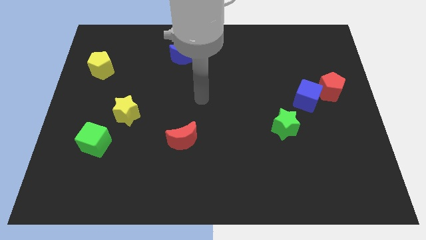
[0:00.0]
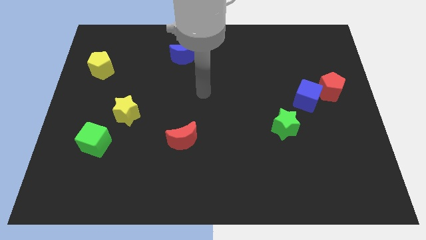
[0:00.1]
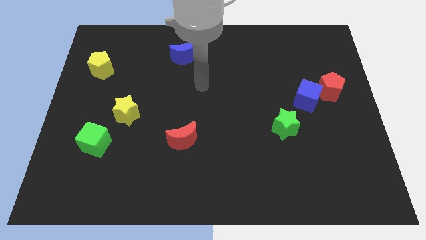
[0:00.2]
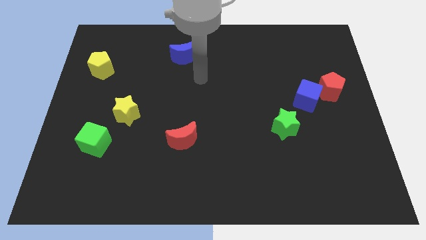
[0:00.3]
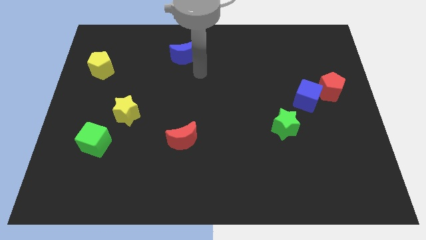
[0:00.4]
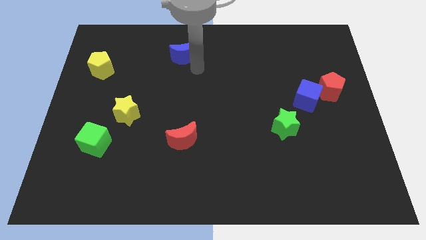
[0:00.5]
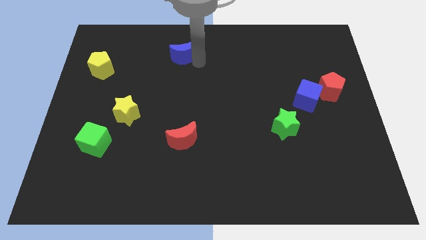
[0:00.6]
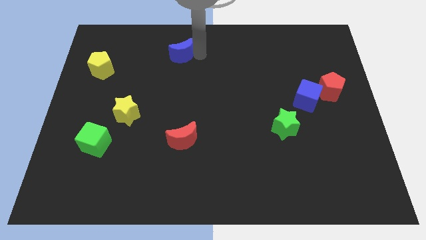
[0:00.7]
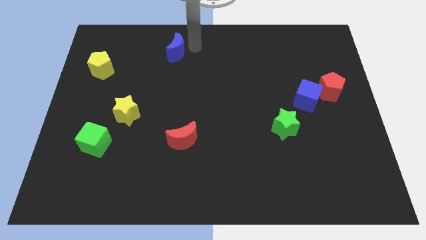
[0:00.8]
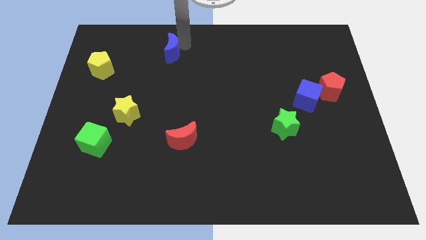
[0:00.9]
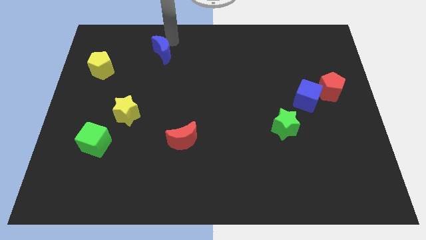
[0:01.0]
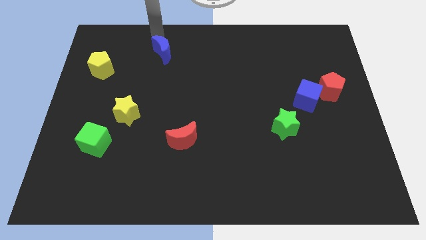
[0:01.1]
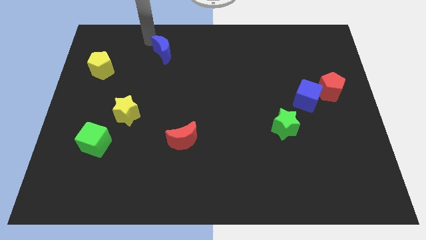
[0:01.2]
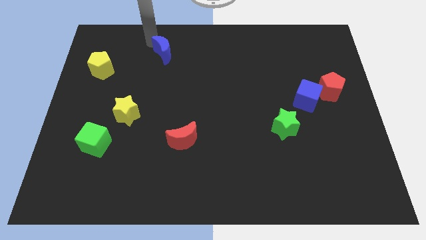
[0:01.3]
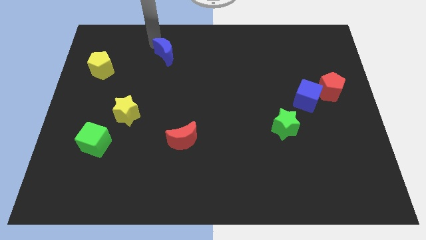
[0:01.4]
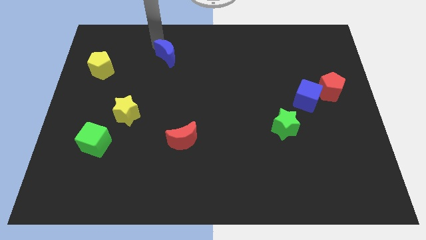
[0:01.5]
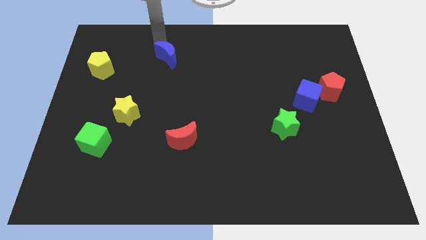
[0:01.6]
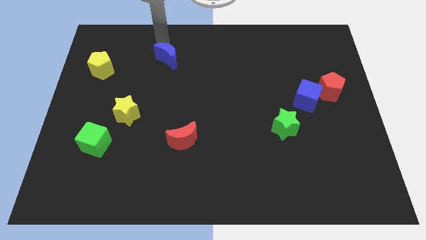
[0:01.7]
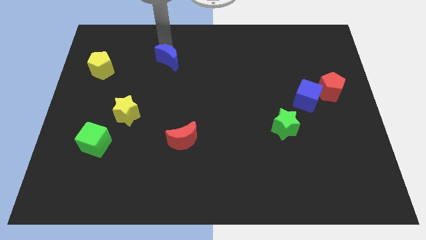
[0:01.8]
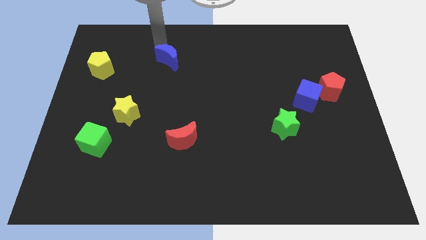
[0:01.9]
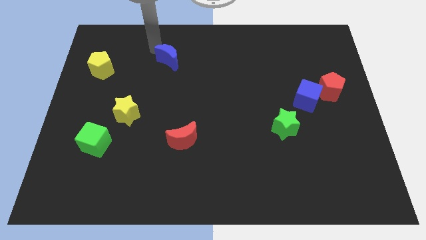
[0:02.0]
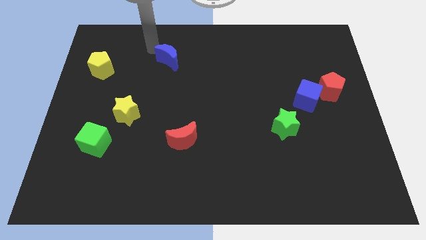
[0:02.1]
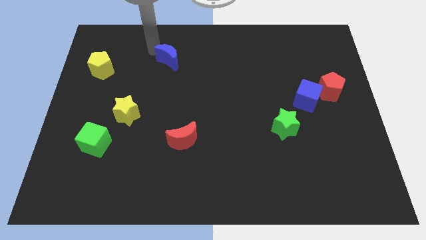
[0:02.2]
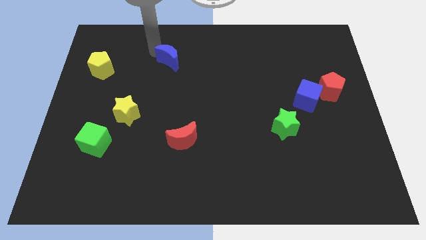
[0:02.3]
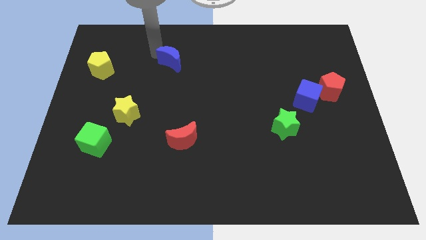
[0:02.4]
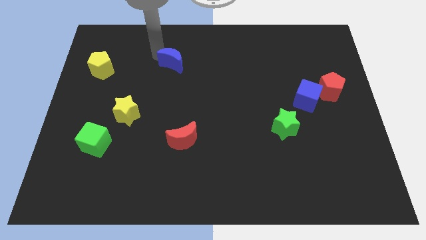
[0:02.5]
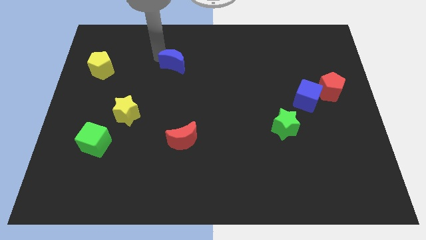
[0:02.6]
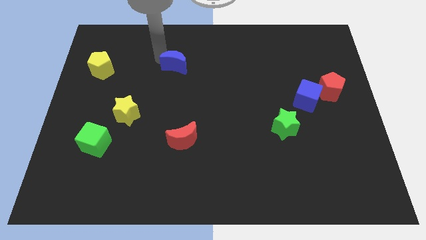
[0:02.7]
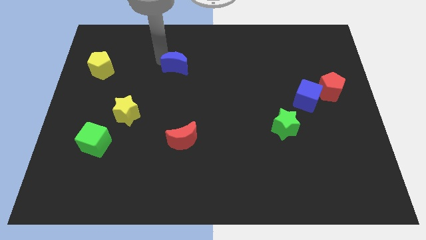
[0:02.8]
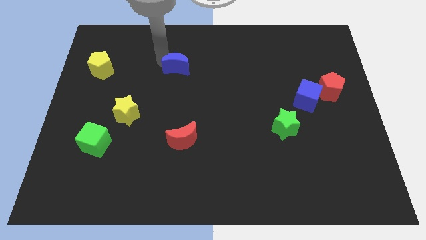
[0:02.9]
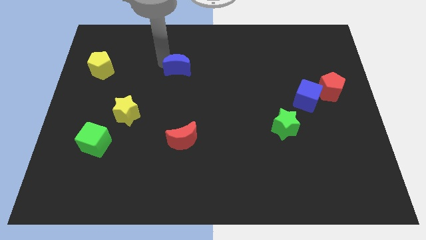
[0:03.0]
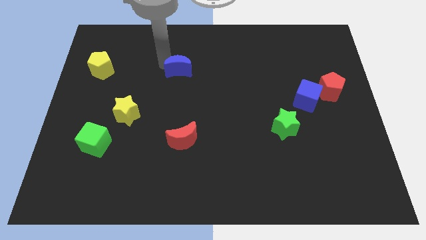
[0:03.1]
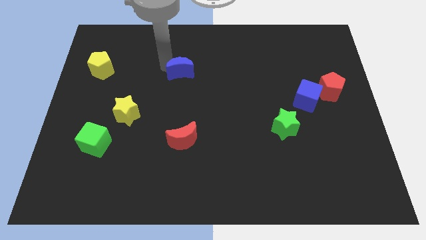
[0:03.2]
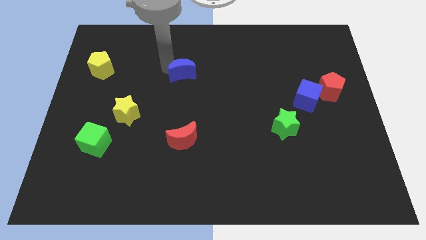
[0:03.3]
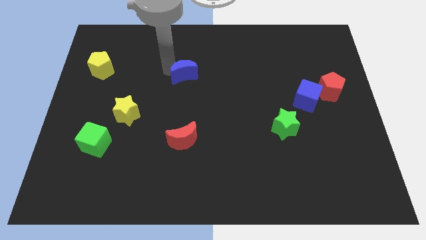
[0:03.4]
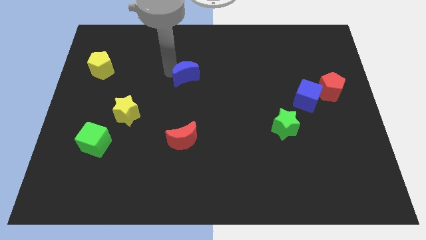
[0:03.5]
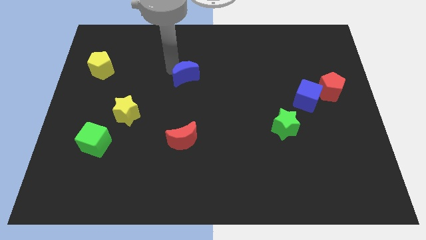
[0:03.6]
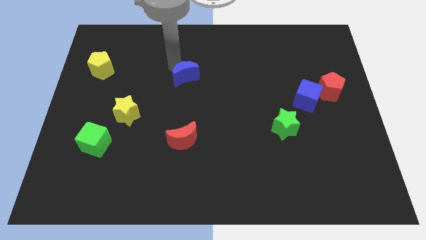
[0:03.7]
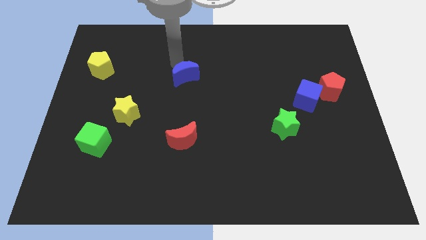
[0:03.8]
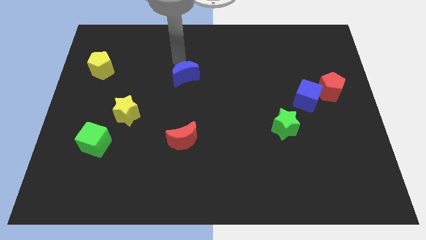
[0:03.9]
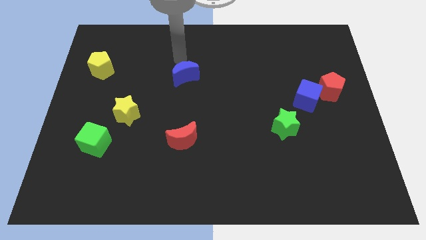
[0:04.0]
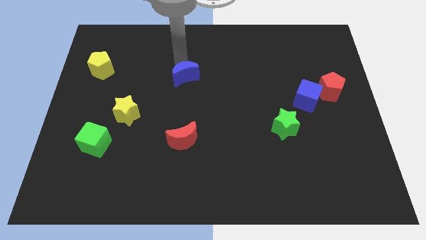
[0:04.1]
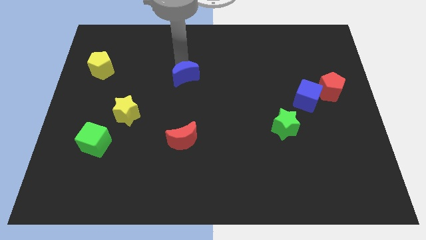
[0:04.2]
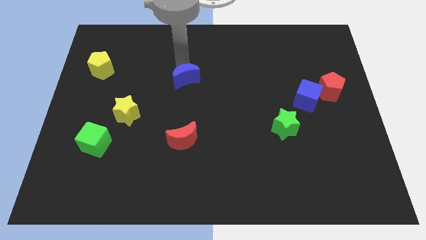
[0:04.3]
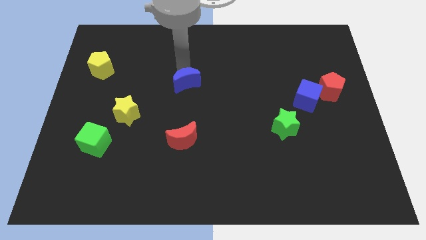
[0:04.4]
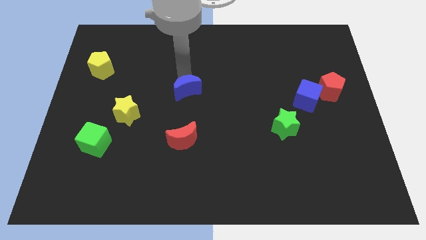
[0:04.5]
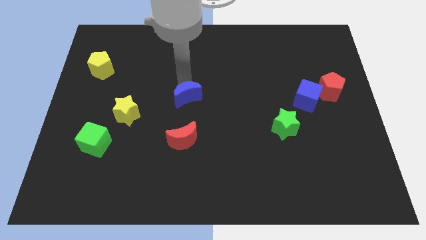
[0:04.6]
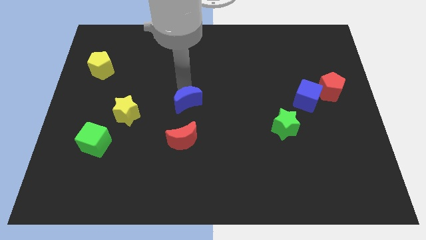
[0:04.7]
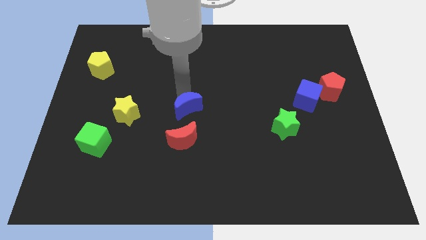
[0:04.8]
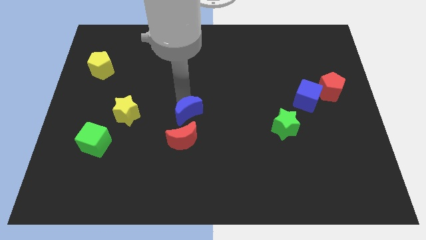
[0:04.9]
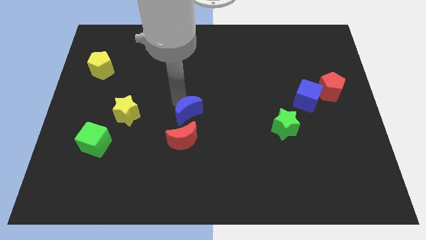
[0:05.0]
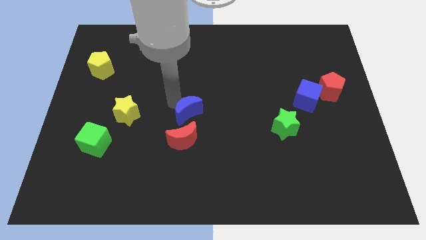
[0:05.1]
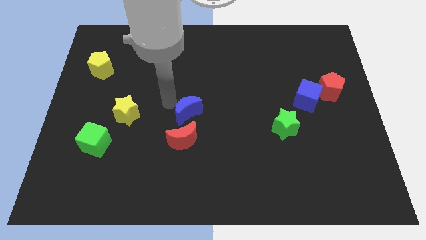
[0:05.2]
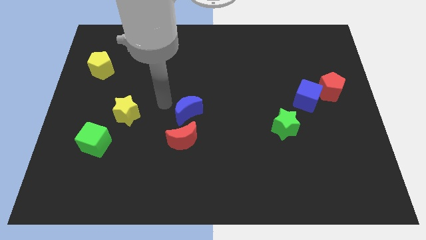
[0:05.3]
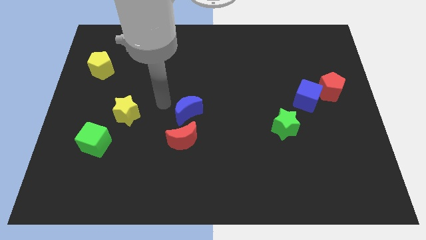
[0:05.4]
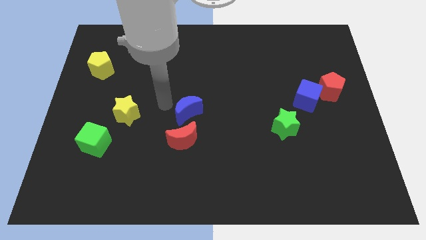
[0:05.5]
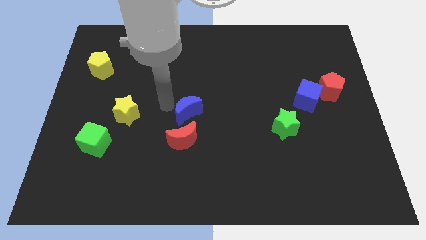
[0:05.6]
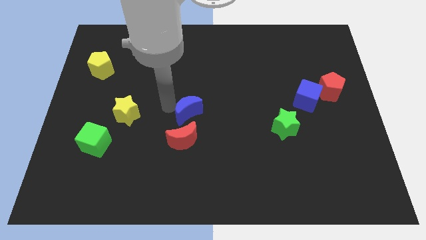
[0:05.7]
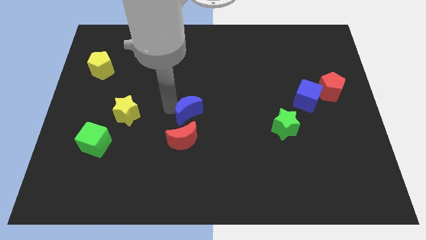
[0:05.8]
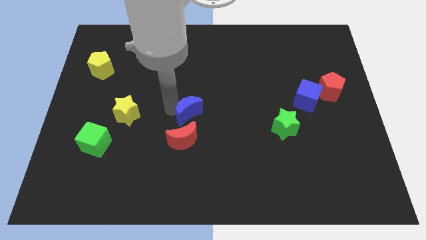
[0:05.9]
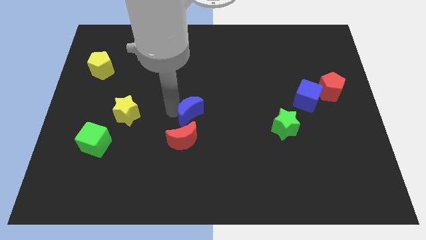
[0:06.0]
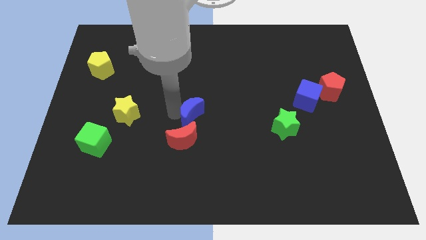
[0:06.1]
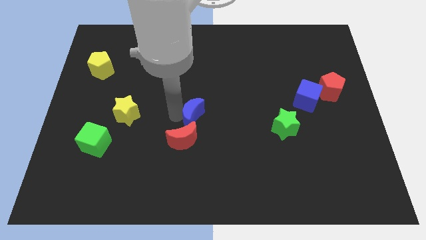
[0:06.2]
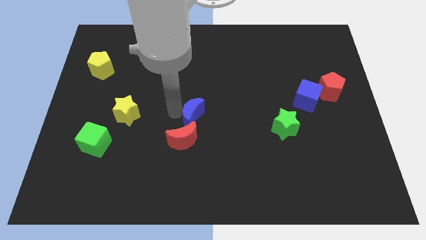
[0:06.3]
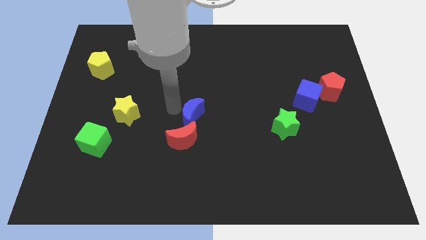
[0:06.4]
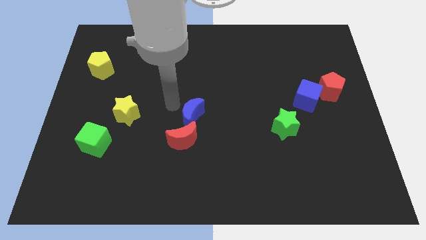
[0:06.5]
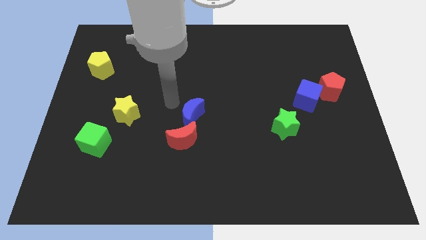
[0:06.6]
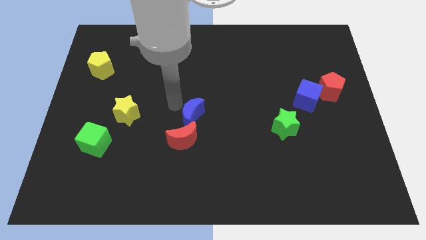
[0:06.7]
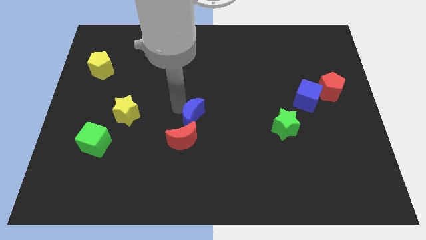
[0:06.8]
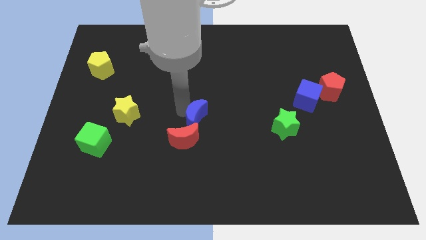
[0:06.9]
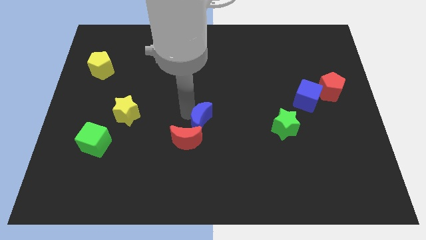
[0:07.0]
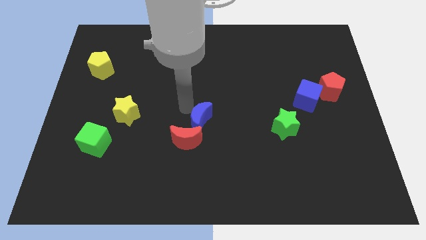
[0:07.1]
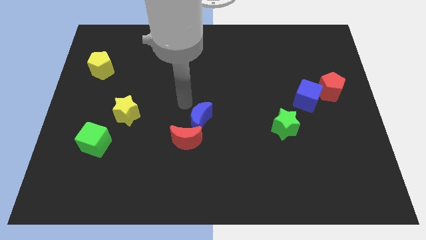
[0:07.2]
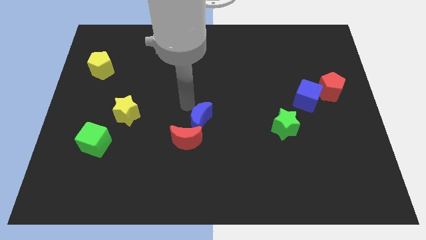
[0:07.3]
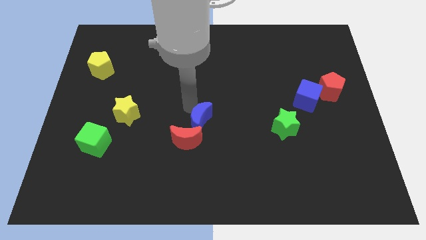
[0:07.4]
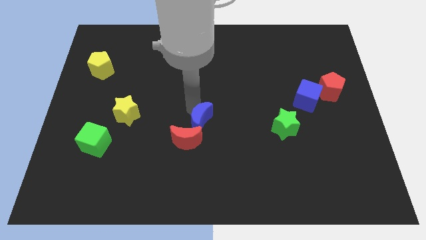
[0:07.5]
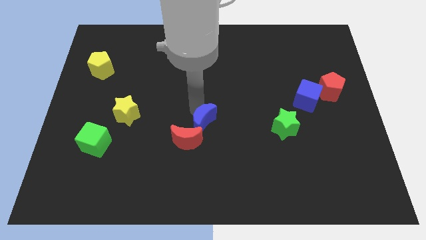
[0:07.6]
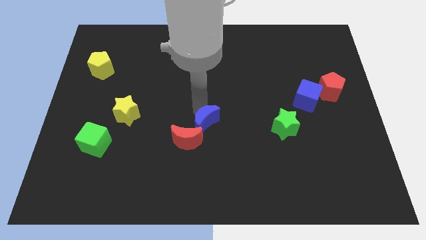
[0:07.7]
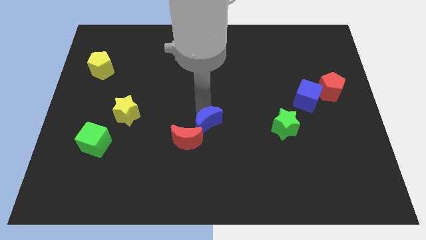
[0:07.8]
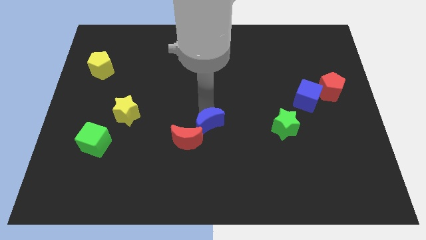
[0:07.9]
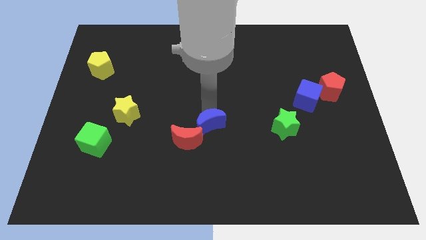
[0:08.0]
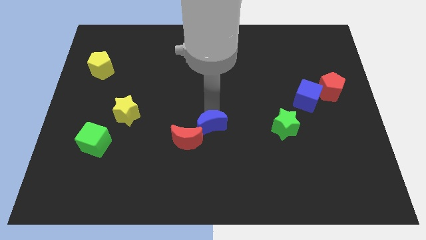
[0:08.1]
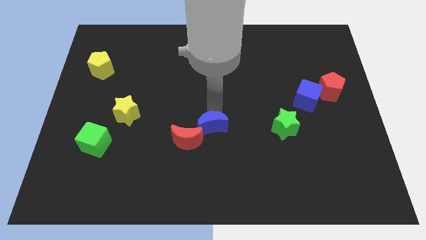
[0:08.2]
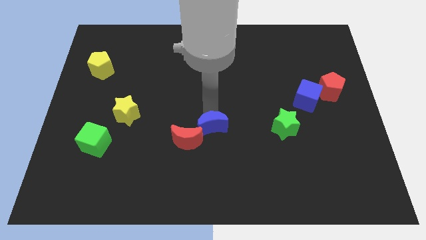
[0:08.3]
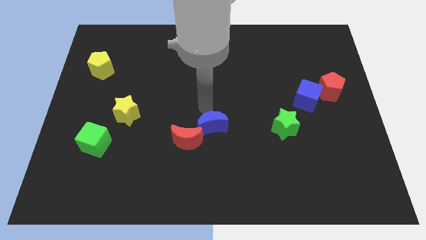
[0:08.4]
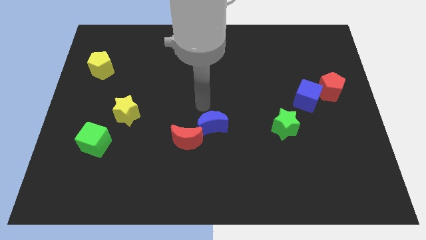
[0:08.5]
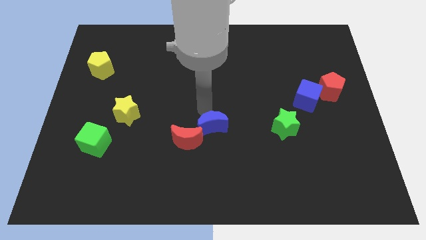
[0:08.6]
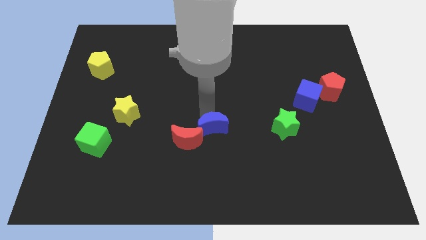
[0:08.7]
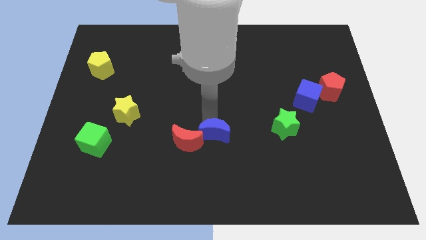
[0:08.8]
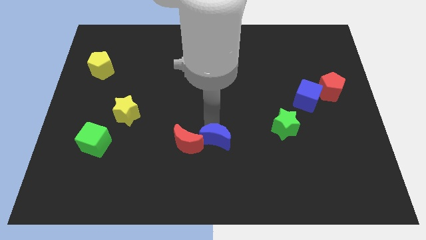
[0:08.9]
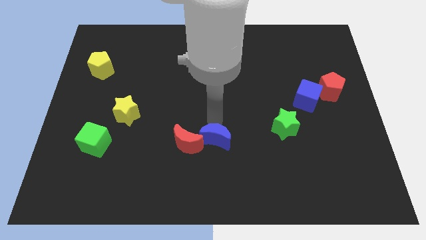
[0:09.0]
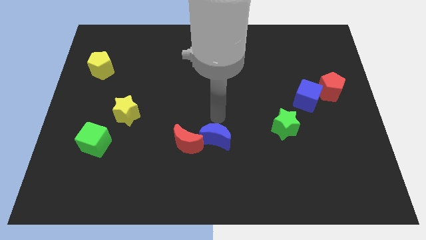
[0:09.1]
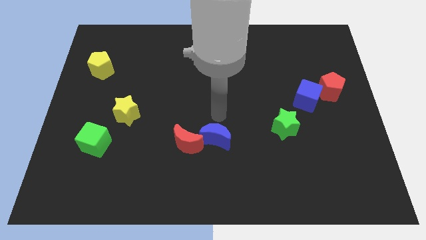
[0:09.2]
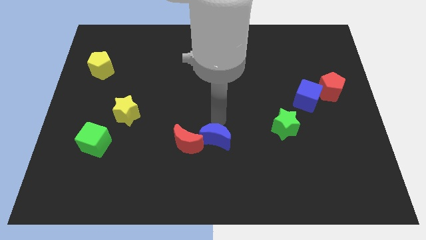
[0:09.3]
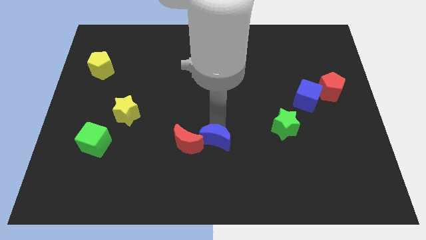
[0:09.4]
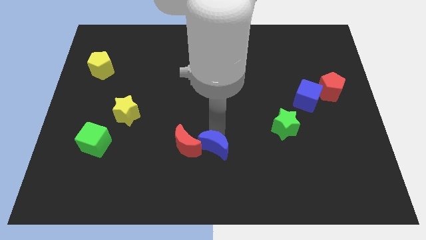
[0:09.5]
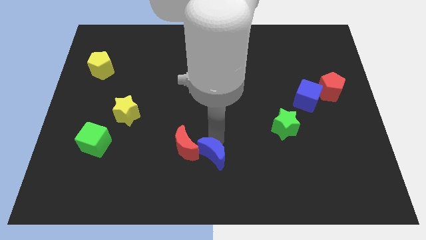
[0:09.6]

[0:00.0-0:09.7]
move the blue moon to the bottom side
